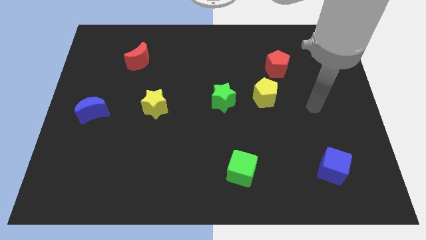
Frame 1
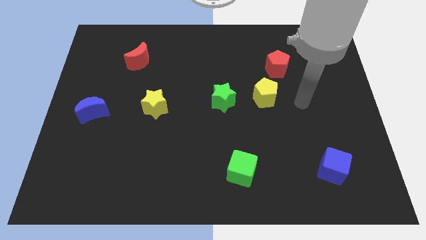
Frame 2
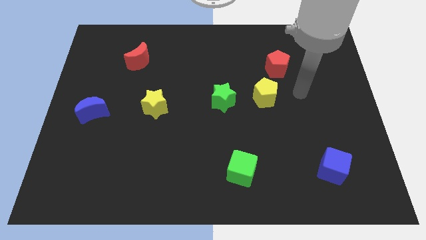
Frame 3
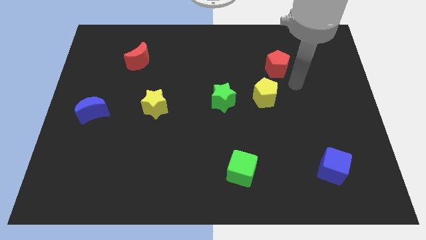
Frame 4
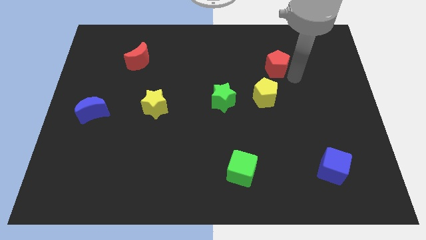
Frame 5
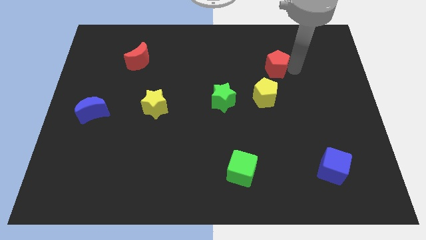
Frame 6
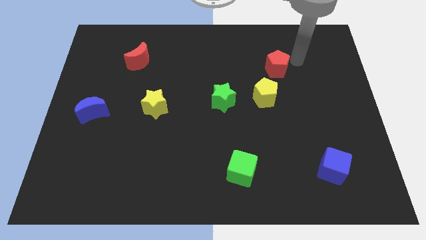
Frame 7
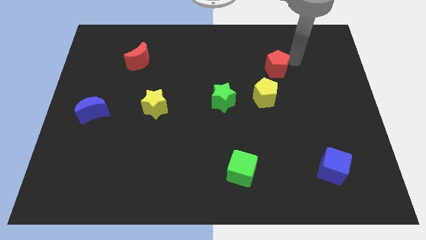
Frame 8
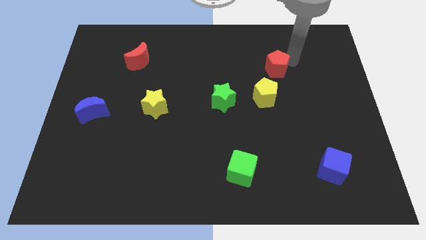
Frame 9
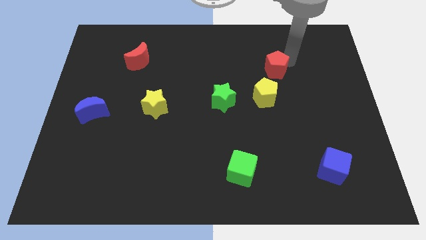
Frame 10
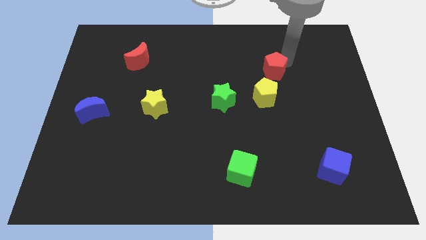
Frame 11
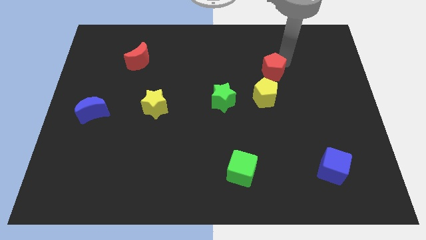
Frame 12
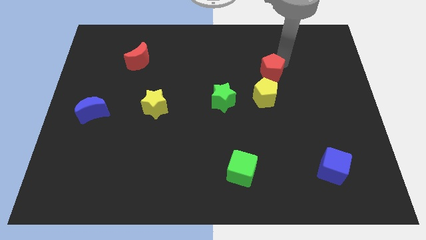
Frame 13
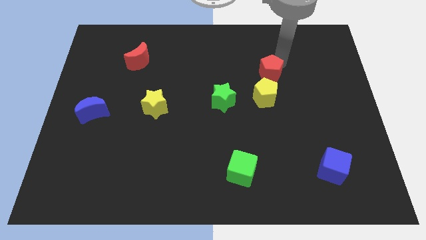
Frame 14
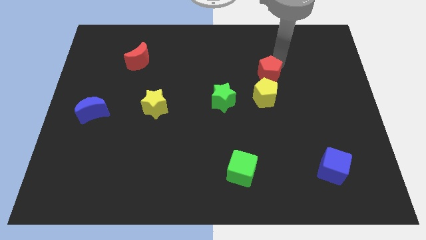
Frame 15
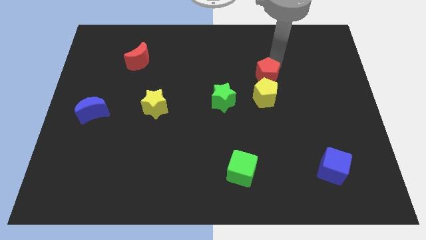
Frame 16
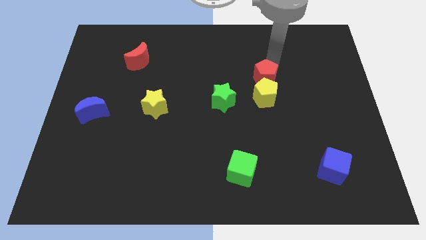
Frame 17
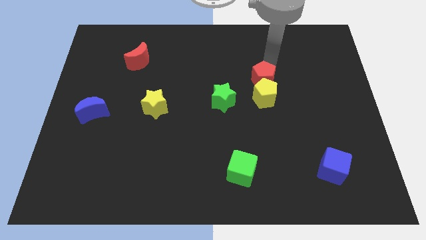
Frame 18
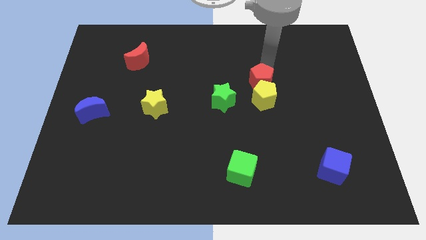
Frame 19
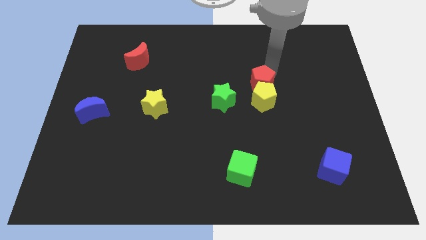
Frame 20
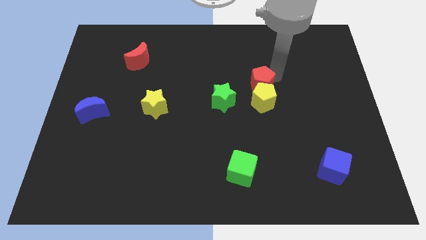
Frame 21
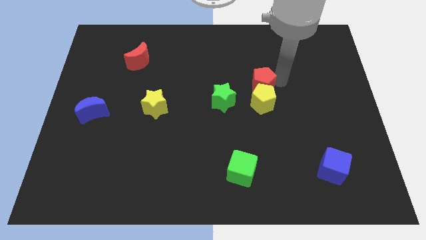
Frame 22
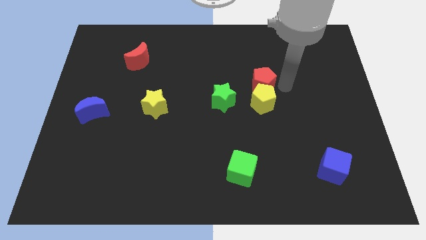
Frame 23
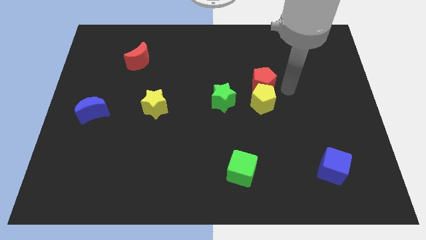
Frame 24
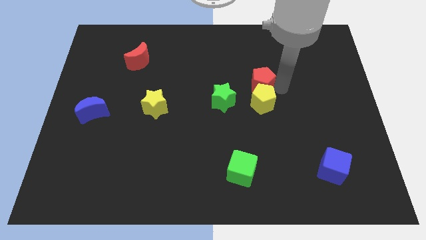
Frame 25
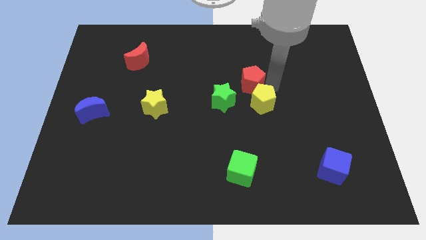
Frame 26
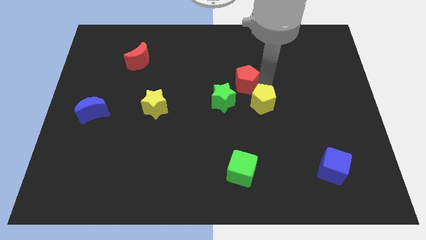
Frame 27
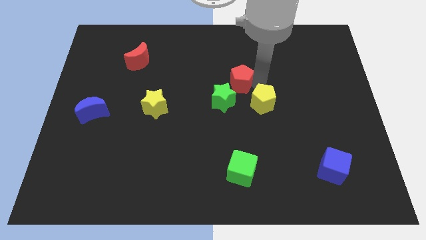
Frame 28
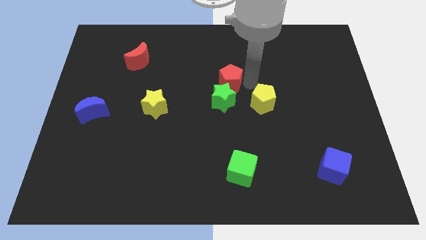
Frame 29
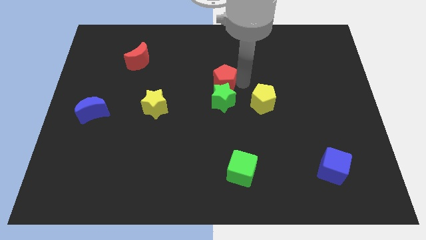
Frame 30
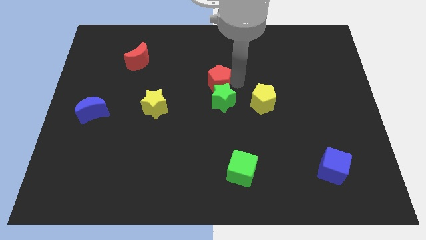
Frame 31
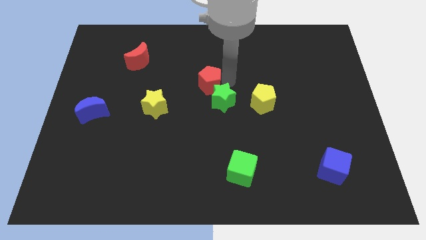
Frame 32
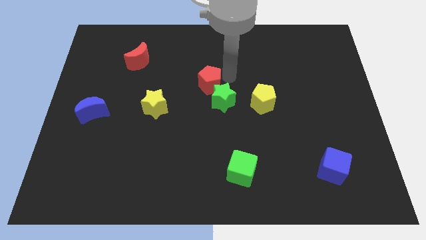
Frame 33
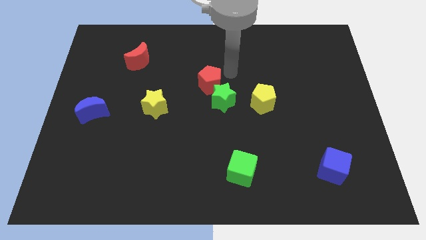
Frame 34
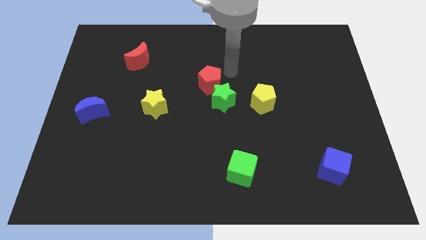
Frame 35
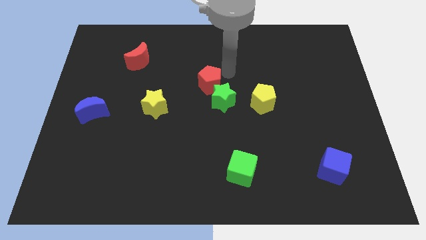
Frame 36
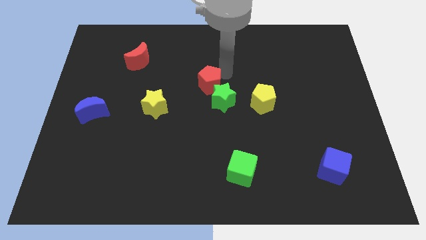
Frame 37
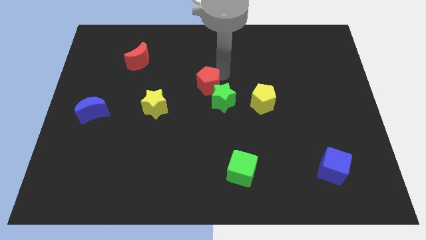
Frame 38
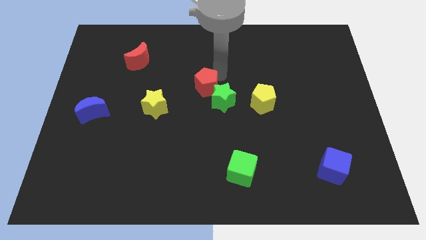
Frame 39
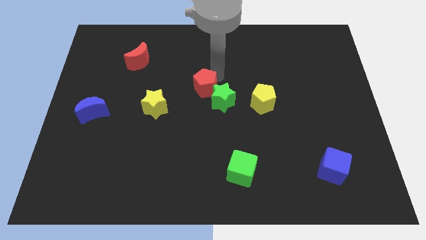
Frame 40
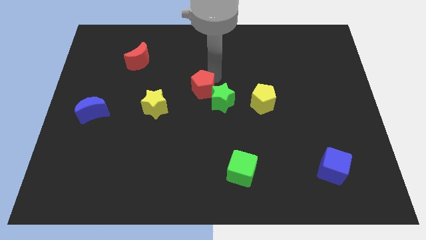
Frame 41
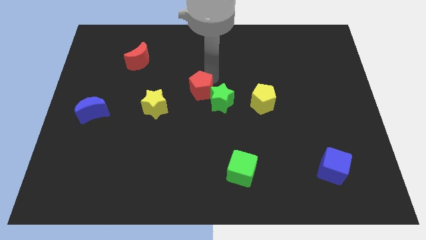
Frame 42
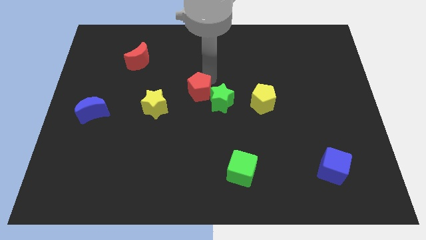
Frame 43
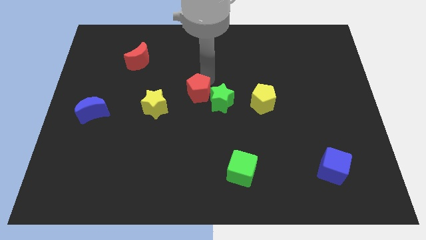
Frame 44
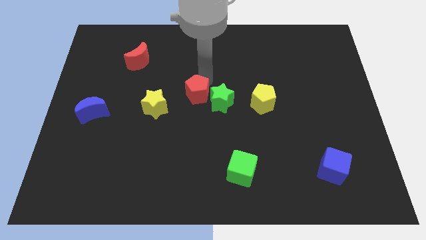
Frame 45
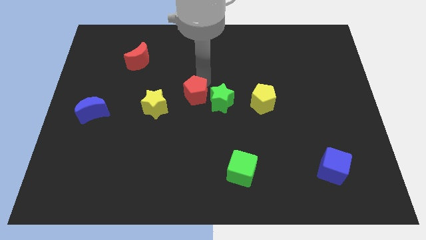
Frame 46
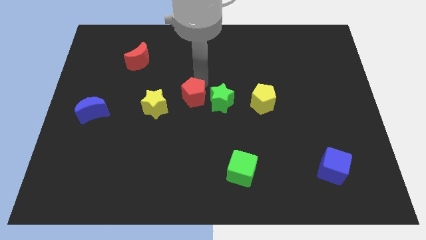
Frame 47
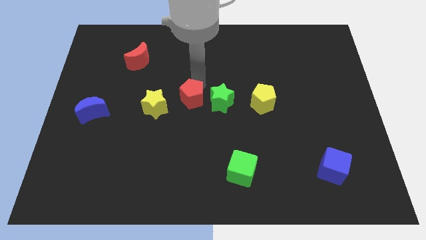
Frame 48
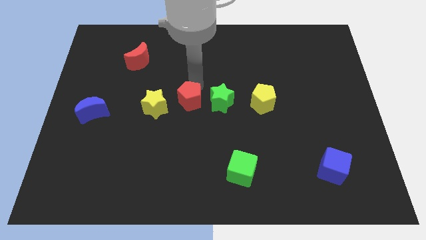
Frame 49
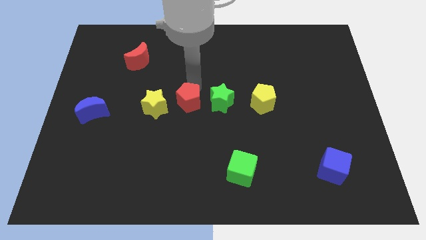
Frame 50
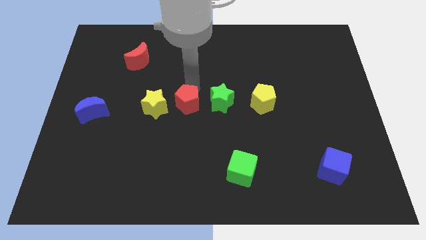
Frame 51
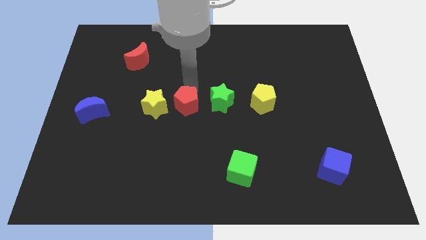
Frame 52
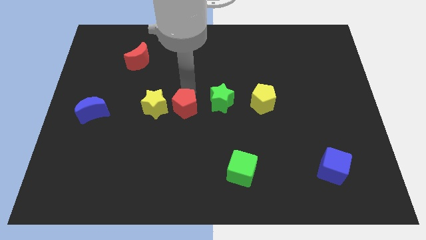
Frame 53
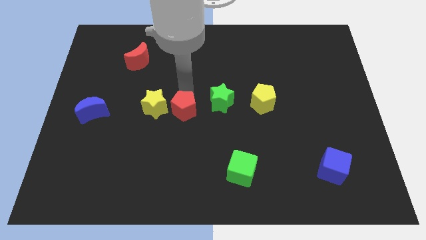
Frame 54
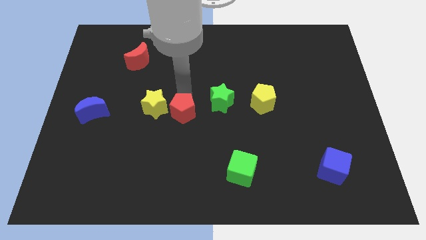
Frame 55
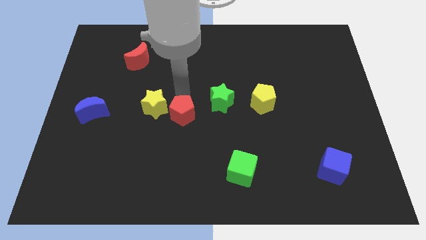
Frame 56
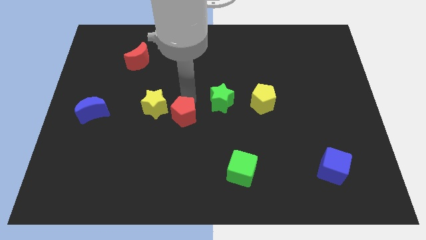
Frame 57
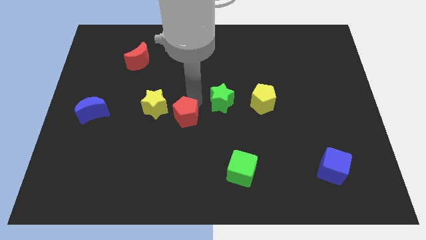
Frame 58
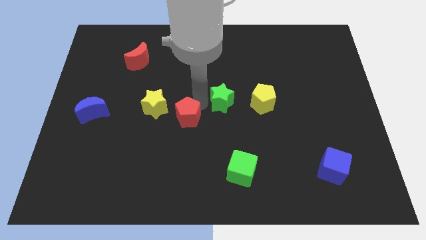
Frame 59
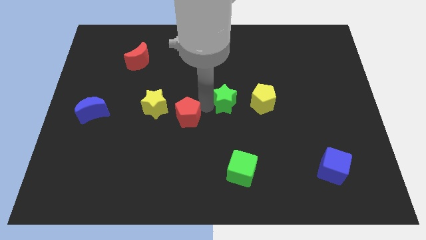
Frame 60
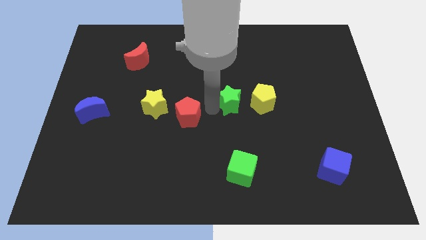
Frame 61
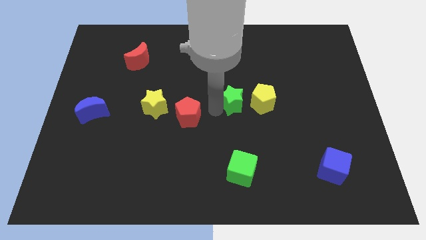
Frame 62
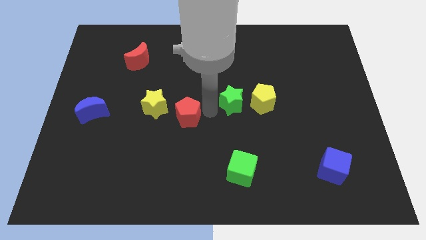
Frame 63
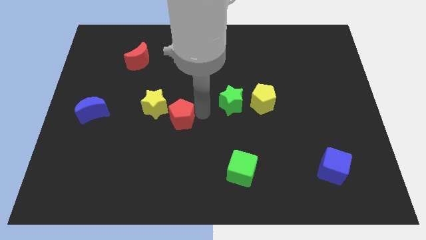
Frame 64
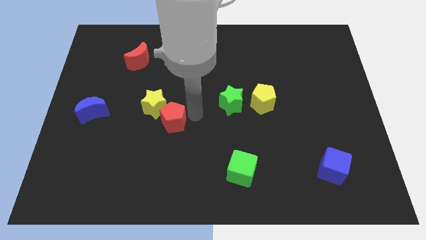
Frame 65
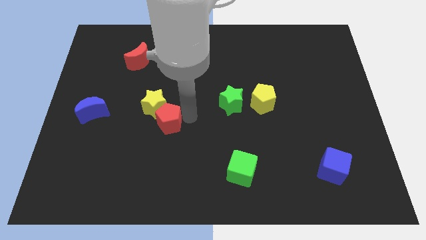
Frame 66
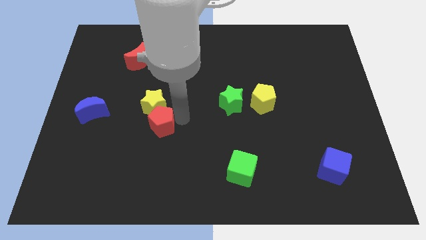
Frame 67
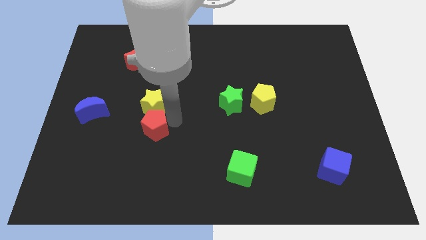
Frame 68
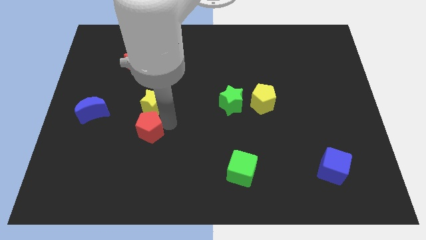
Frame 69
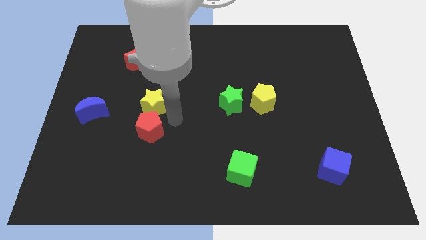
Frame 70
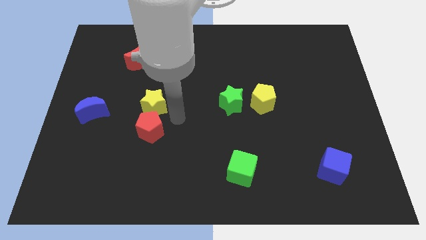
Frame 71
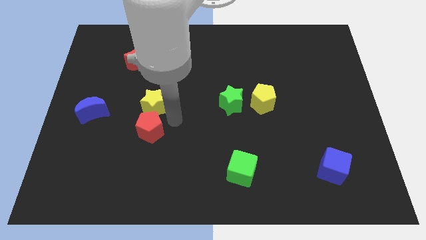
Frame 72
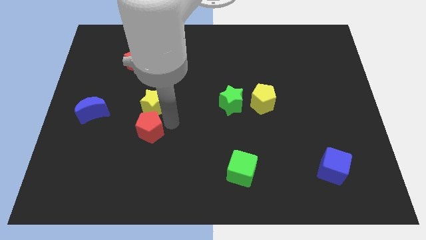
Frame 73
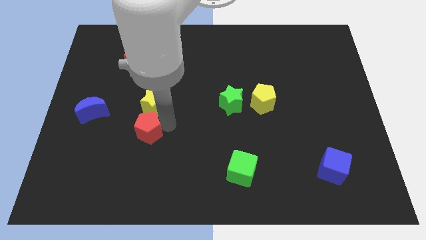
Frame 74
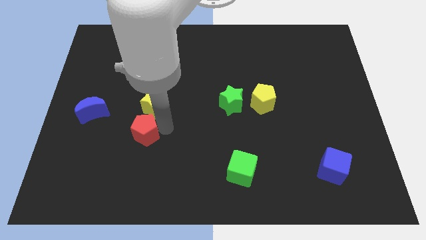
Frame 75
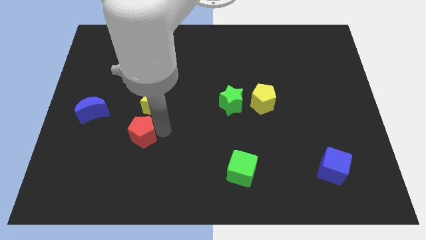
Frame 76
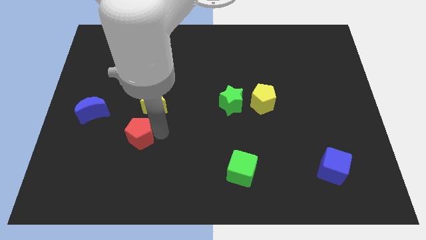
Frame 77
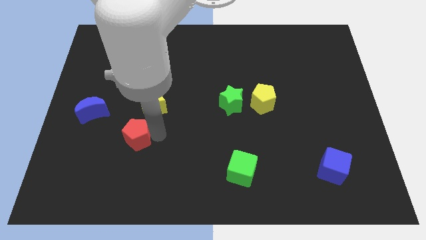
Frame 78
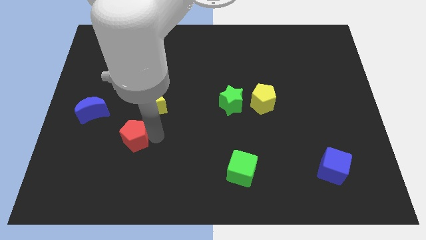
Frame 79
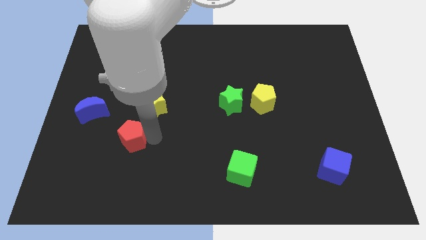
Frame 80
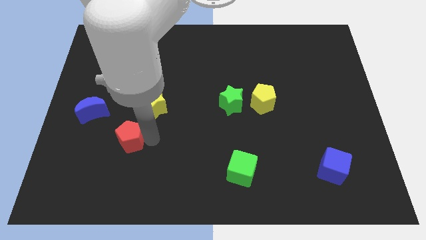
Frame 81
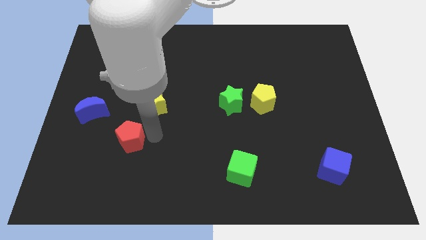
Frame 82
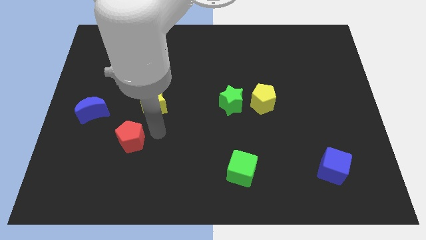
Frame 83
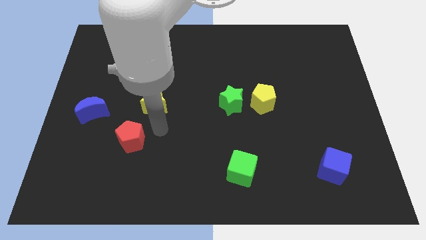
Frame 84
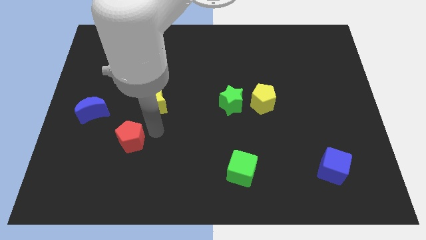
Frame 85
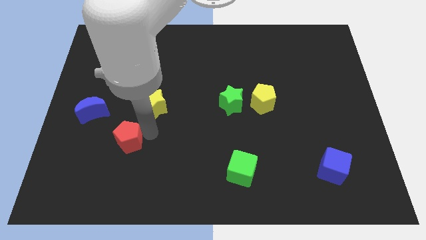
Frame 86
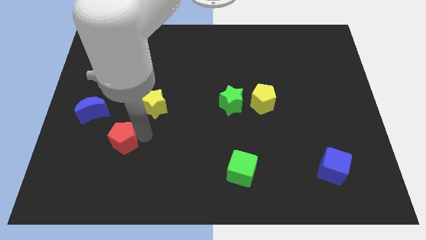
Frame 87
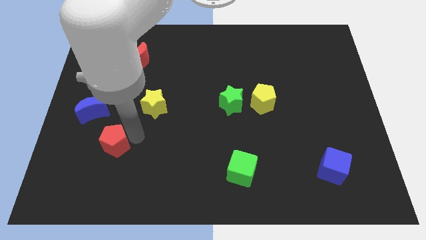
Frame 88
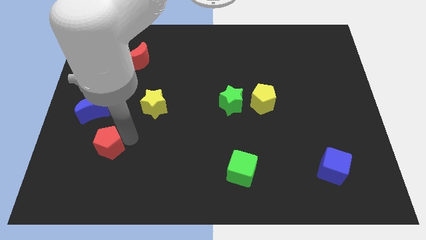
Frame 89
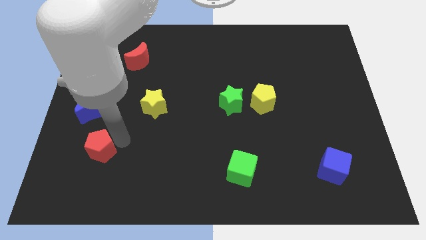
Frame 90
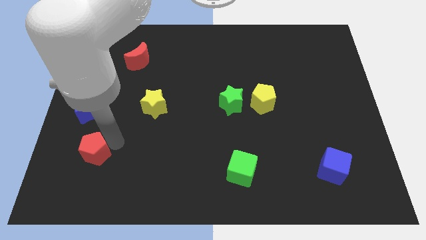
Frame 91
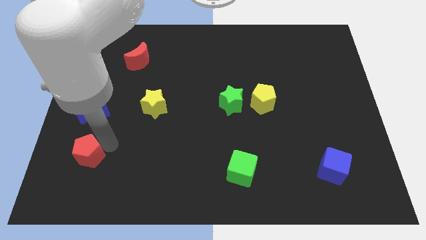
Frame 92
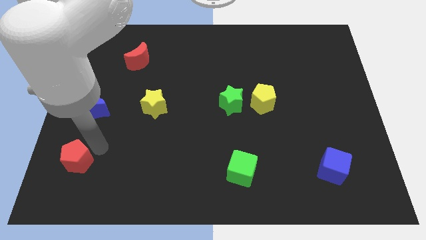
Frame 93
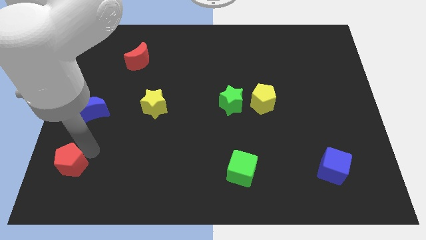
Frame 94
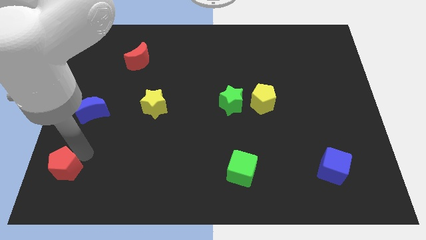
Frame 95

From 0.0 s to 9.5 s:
push the red pentagon to the bottom left
